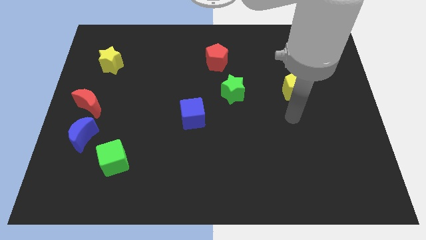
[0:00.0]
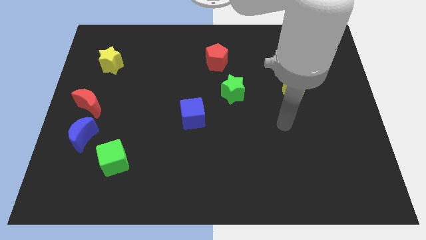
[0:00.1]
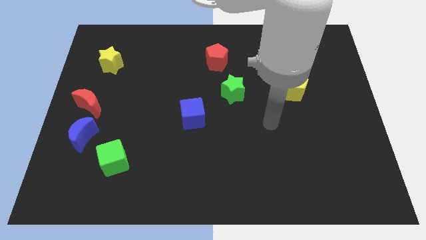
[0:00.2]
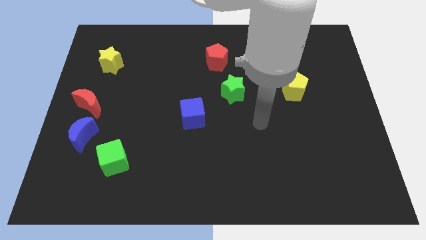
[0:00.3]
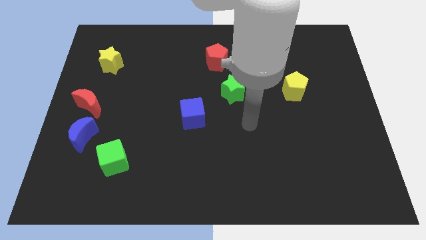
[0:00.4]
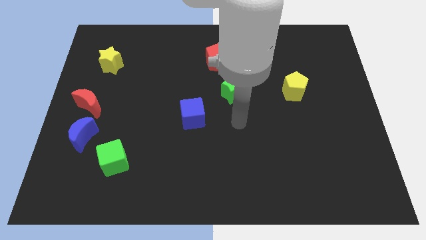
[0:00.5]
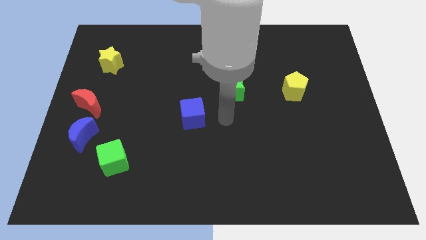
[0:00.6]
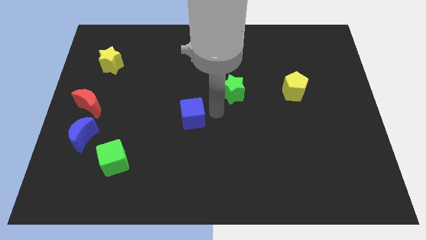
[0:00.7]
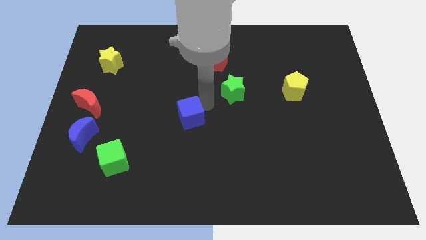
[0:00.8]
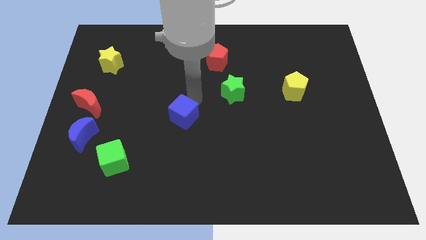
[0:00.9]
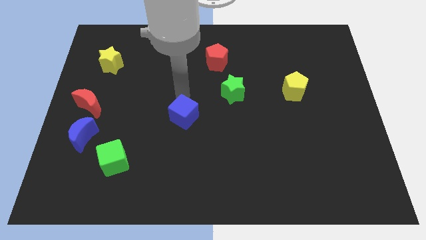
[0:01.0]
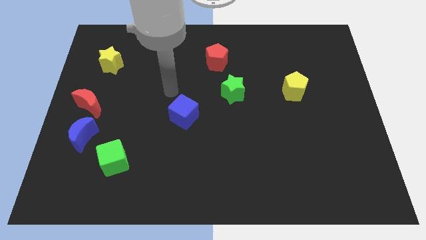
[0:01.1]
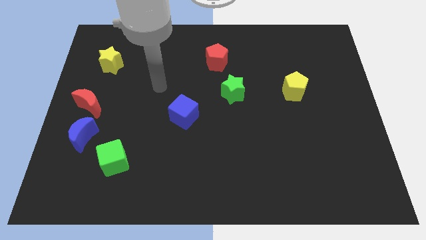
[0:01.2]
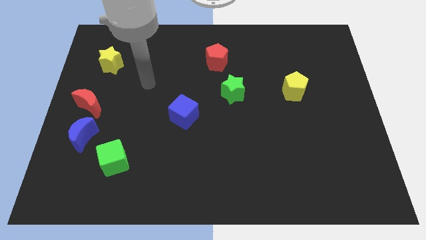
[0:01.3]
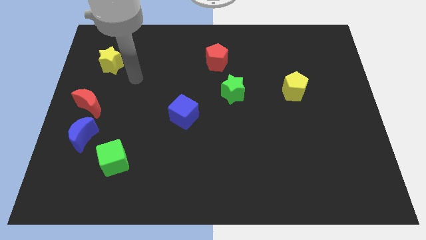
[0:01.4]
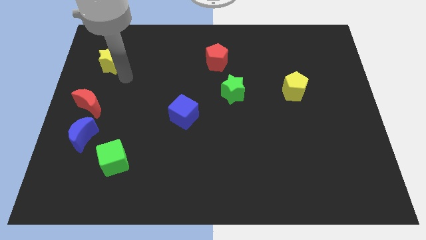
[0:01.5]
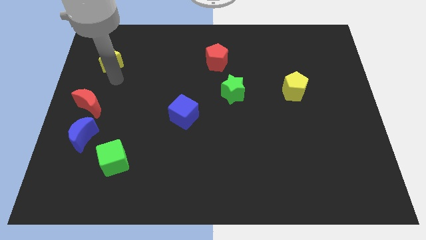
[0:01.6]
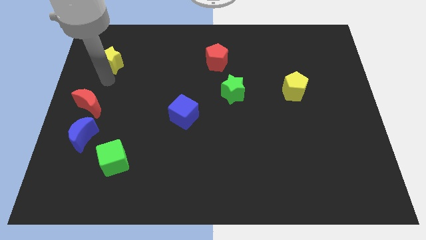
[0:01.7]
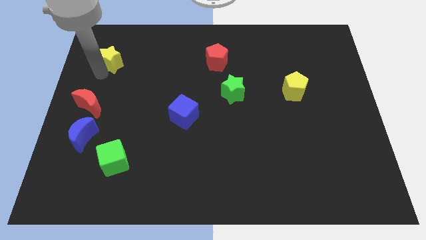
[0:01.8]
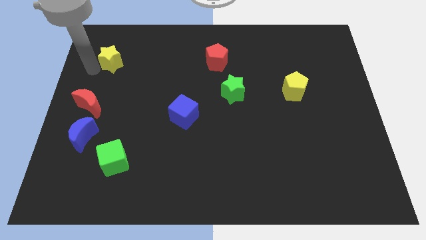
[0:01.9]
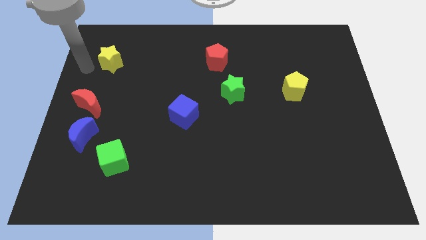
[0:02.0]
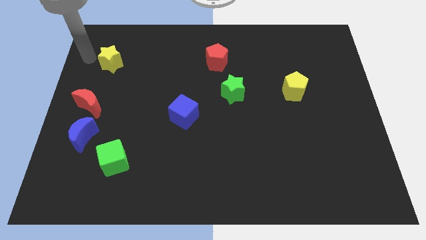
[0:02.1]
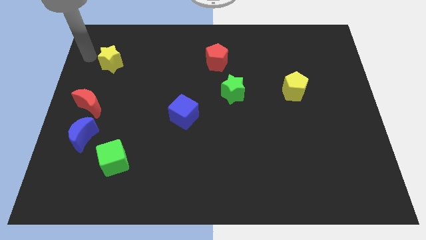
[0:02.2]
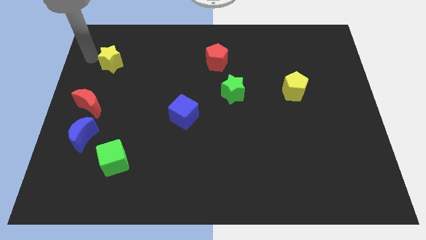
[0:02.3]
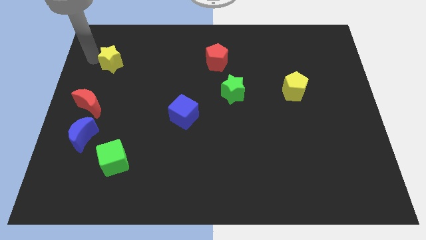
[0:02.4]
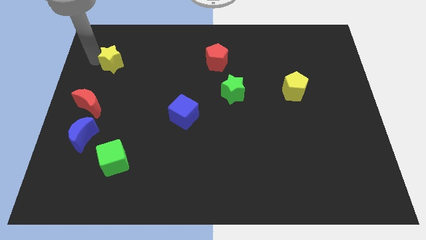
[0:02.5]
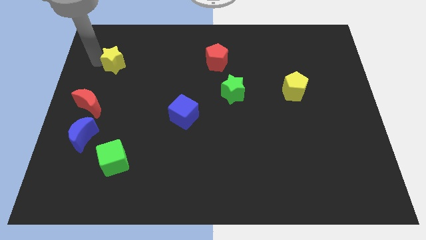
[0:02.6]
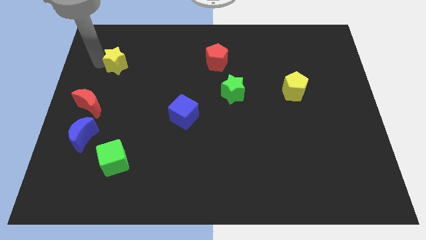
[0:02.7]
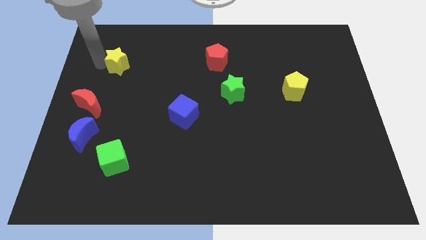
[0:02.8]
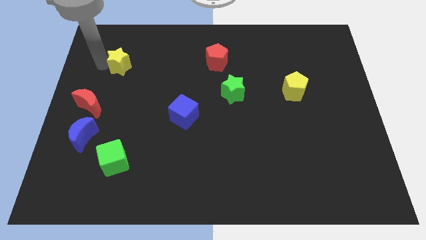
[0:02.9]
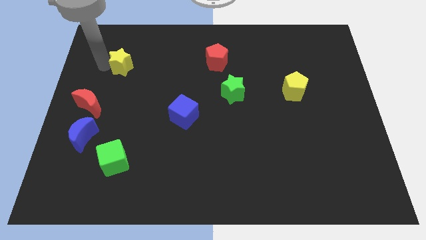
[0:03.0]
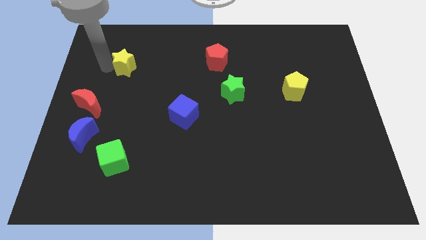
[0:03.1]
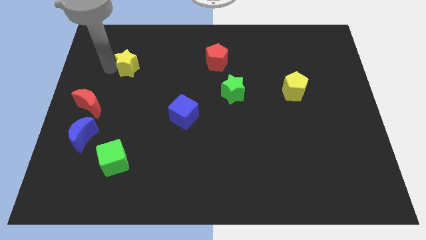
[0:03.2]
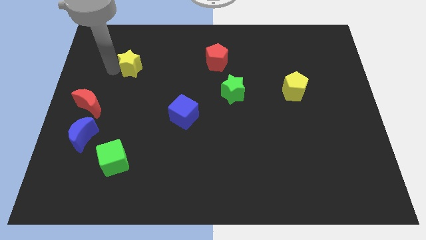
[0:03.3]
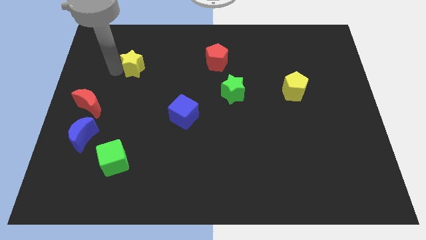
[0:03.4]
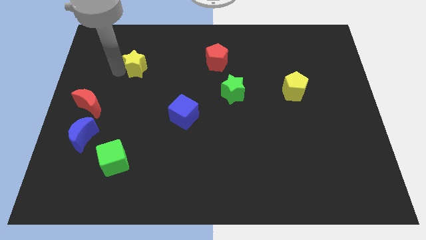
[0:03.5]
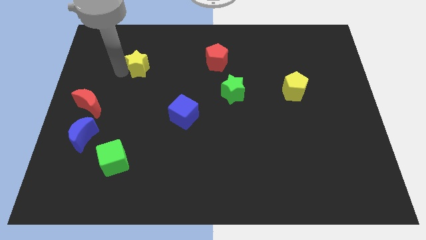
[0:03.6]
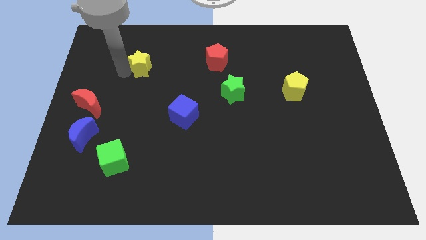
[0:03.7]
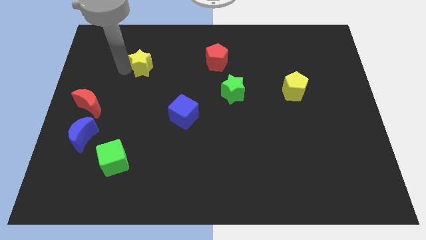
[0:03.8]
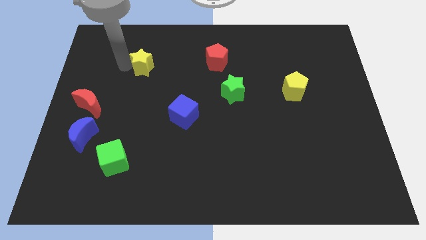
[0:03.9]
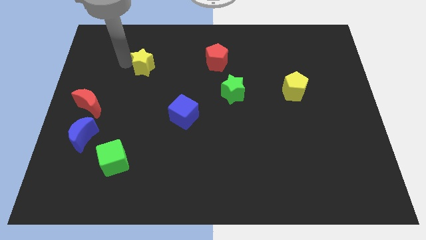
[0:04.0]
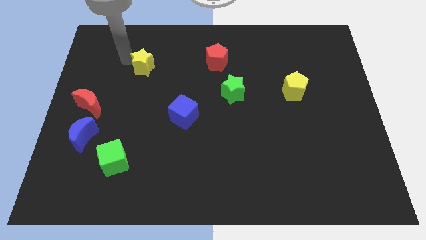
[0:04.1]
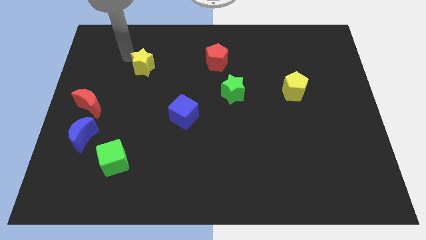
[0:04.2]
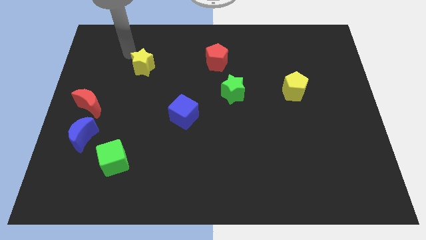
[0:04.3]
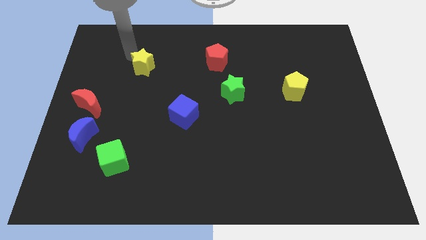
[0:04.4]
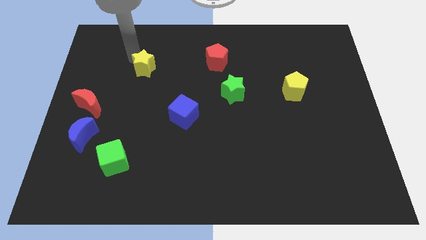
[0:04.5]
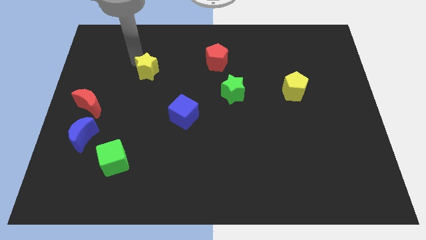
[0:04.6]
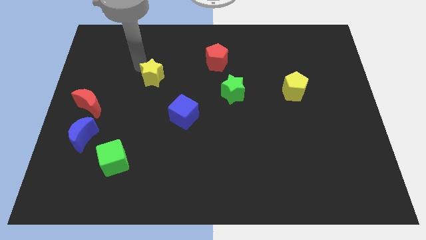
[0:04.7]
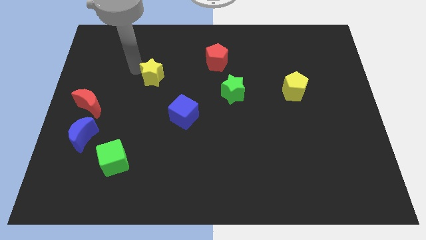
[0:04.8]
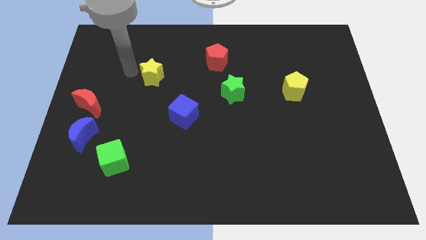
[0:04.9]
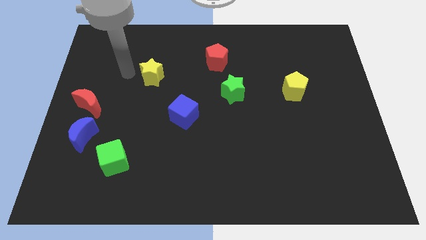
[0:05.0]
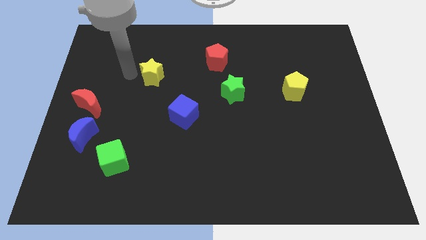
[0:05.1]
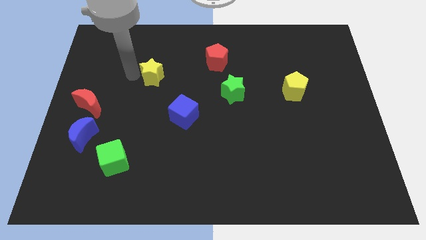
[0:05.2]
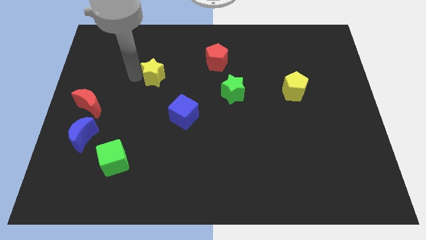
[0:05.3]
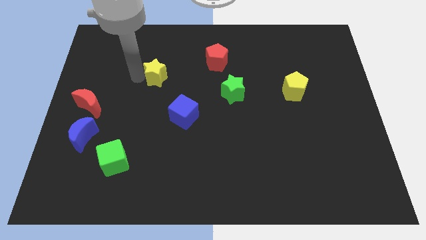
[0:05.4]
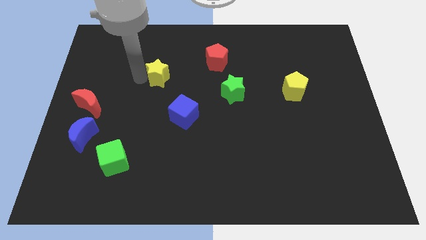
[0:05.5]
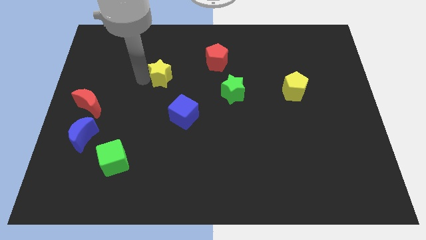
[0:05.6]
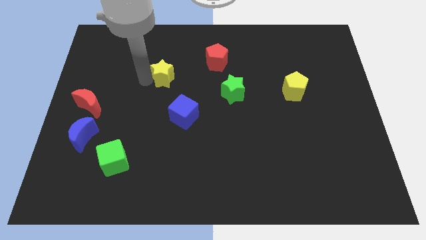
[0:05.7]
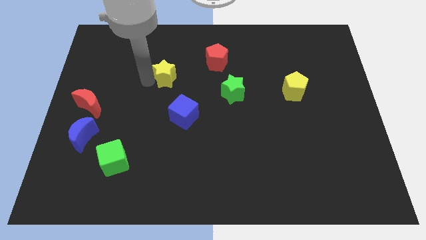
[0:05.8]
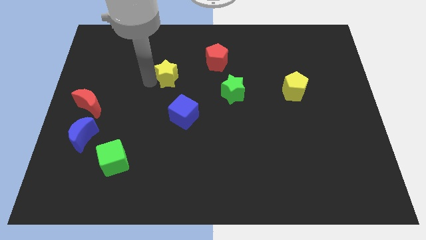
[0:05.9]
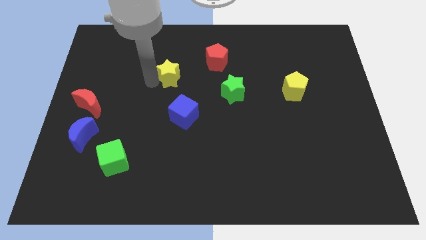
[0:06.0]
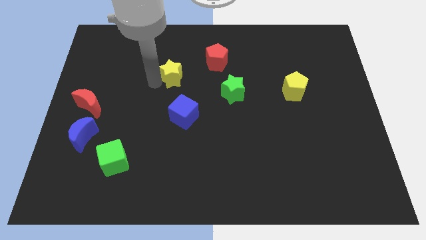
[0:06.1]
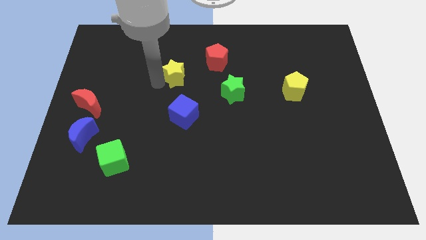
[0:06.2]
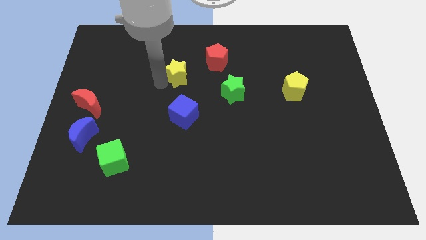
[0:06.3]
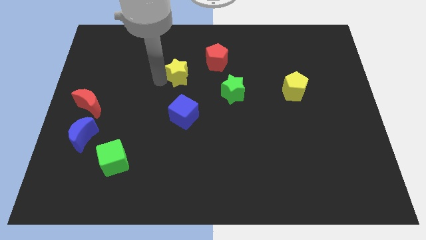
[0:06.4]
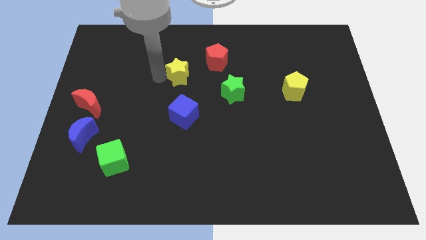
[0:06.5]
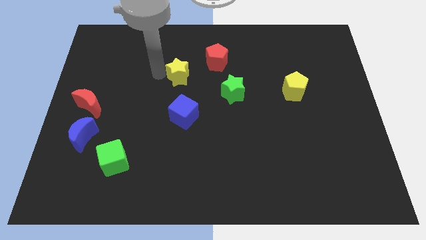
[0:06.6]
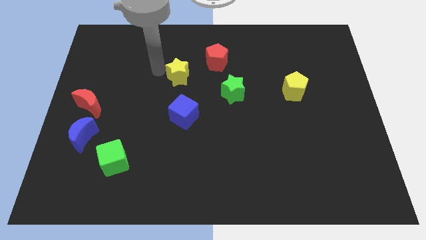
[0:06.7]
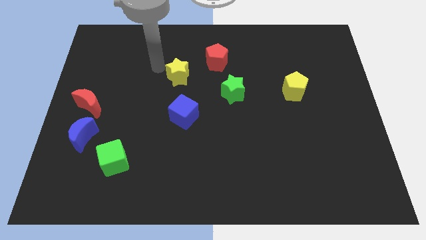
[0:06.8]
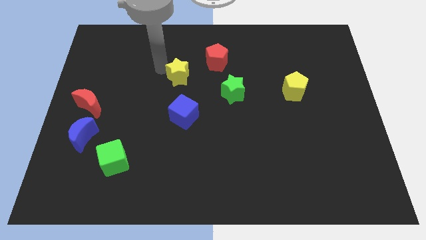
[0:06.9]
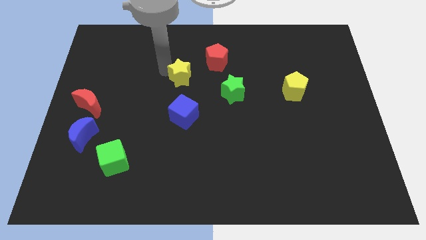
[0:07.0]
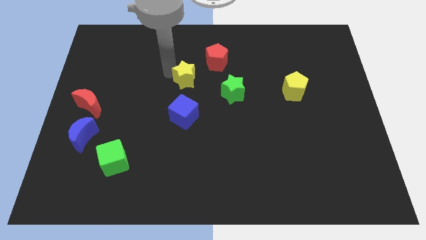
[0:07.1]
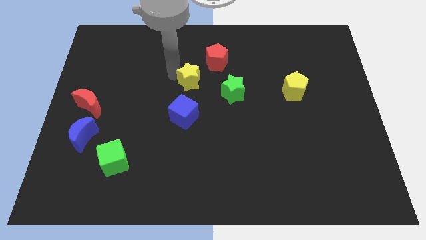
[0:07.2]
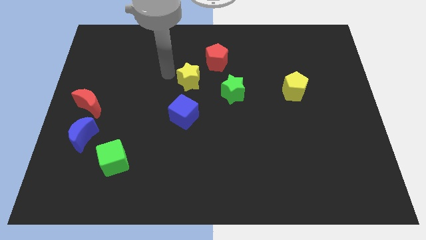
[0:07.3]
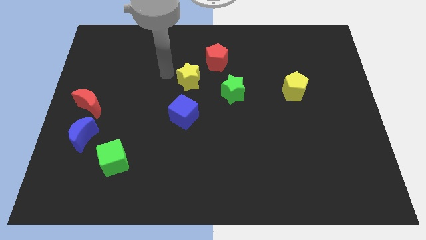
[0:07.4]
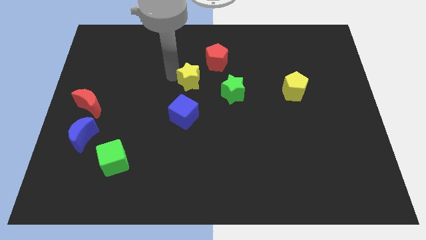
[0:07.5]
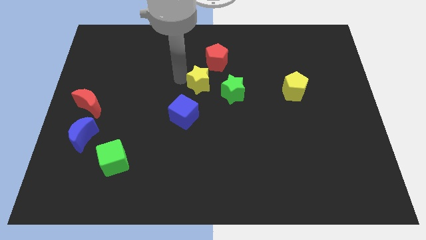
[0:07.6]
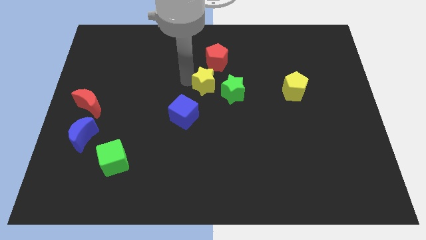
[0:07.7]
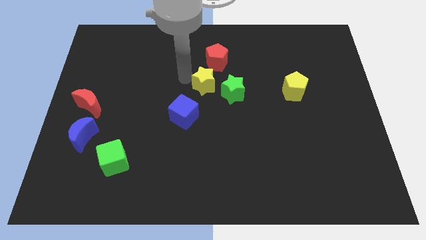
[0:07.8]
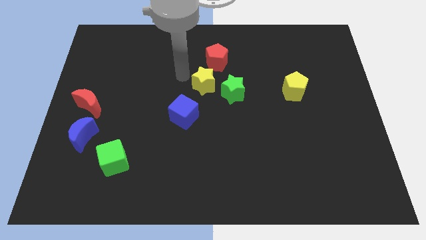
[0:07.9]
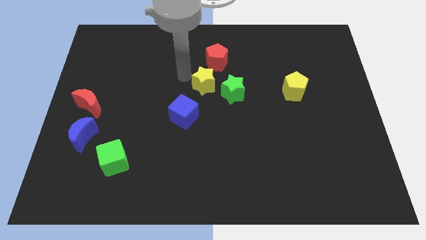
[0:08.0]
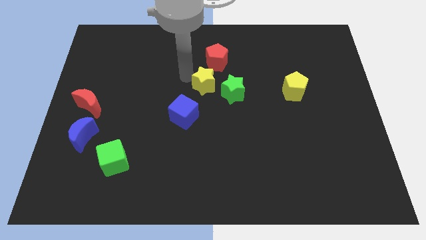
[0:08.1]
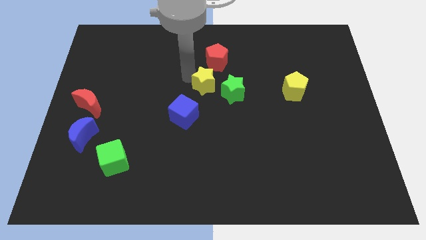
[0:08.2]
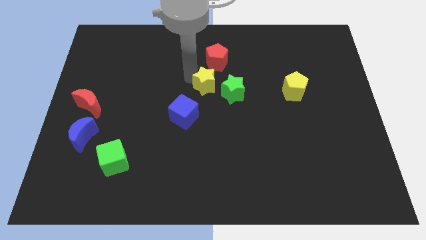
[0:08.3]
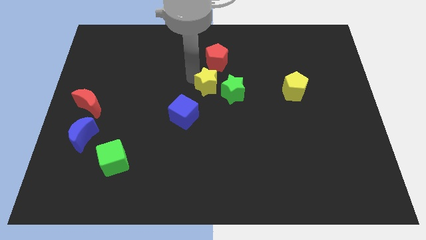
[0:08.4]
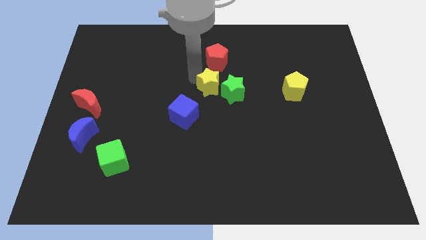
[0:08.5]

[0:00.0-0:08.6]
push the yellow star to the green star
